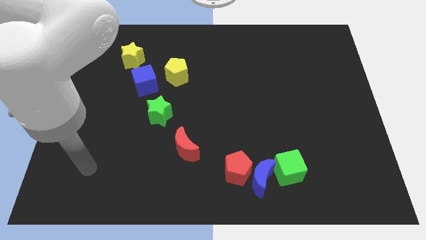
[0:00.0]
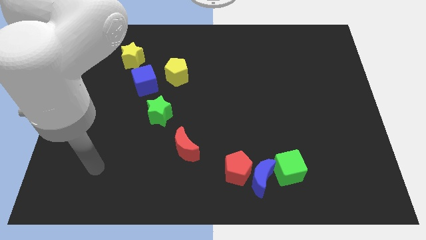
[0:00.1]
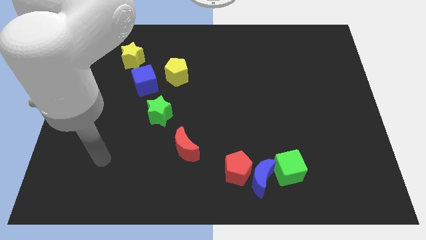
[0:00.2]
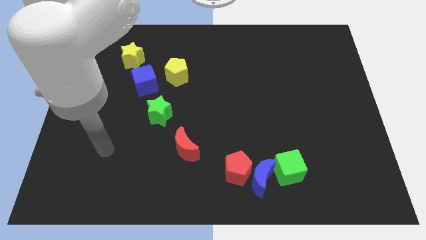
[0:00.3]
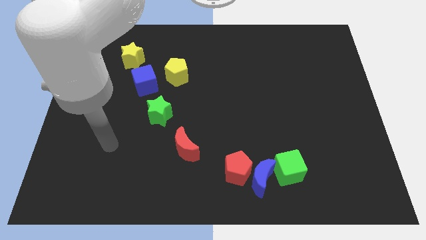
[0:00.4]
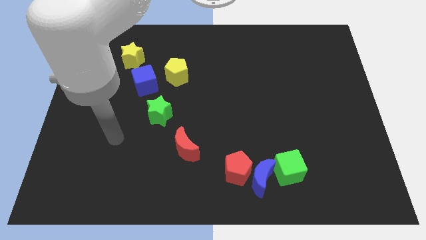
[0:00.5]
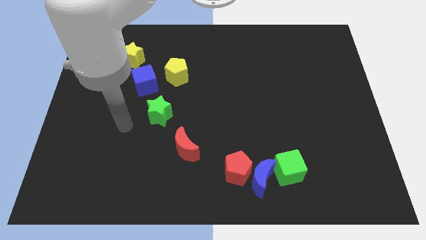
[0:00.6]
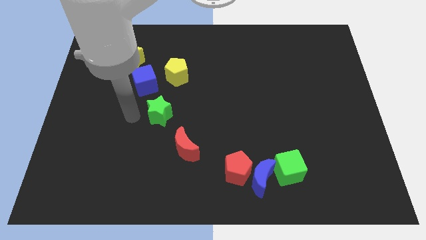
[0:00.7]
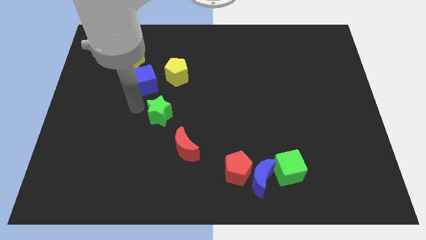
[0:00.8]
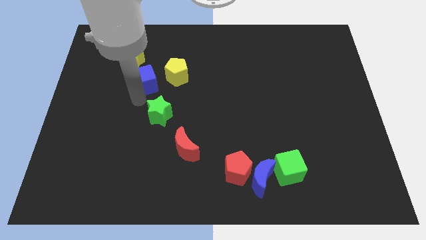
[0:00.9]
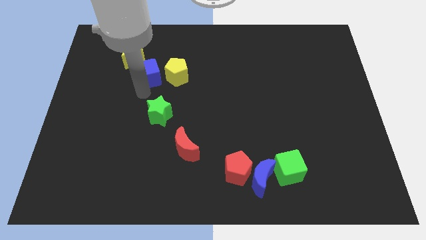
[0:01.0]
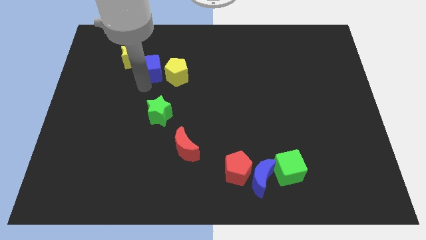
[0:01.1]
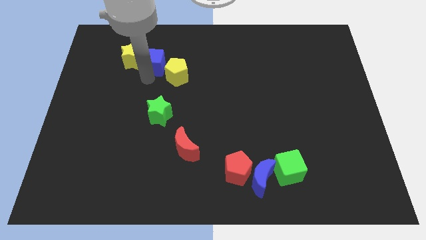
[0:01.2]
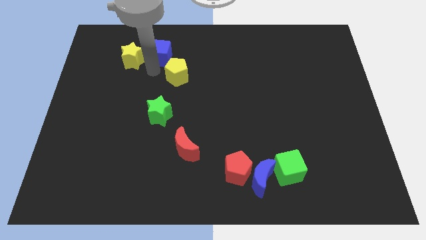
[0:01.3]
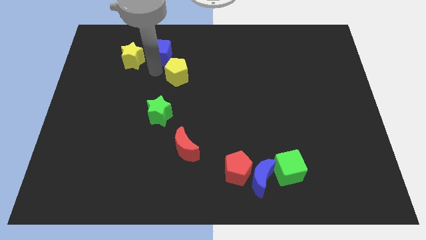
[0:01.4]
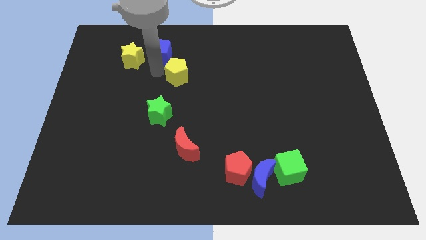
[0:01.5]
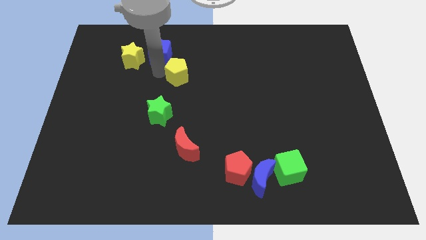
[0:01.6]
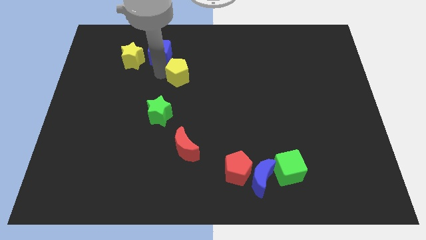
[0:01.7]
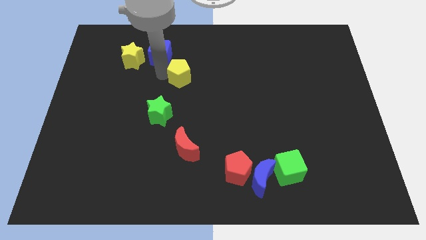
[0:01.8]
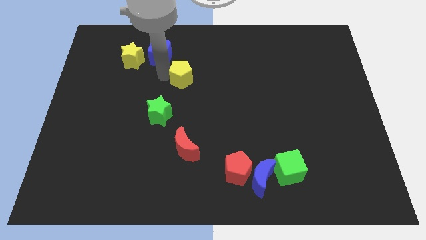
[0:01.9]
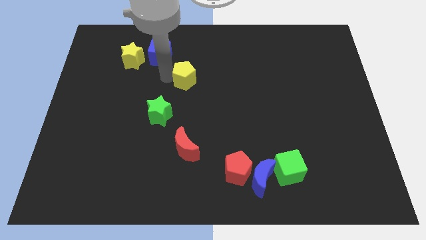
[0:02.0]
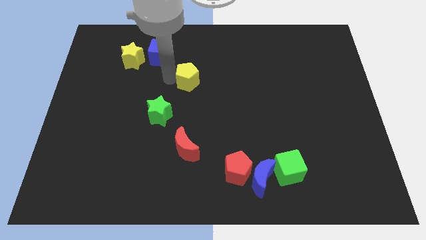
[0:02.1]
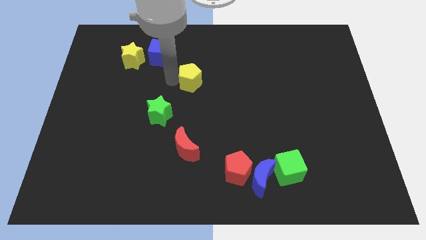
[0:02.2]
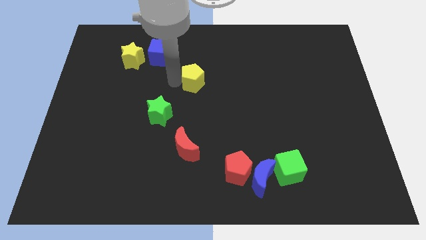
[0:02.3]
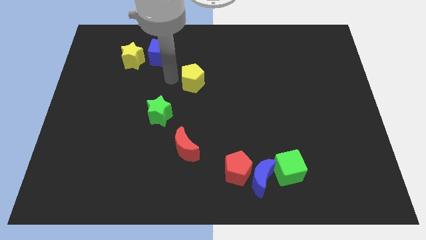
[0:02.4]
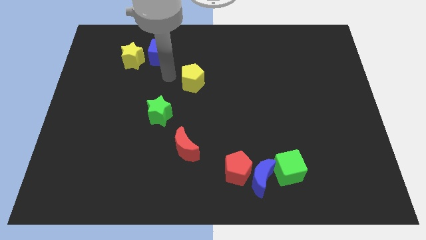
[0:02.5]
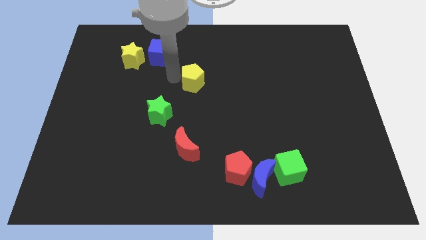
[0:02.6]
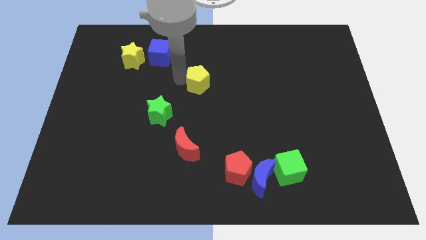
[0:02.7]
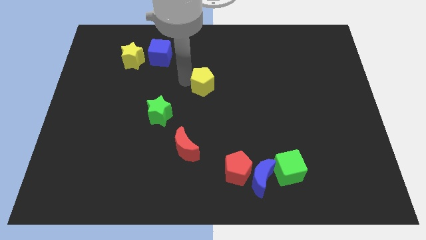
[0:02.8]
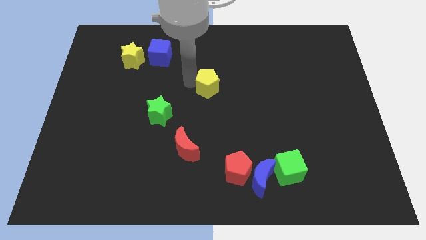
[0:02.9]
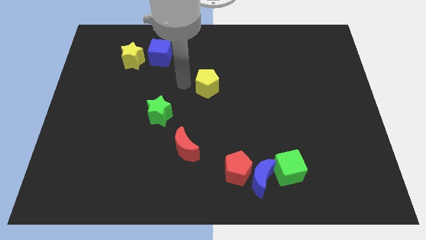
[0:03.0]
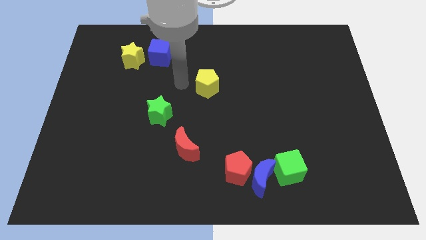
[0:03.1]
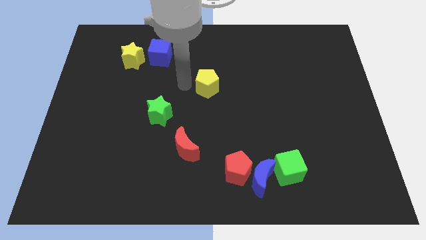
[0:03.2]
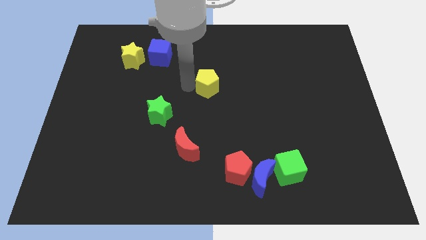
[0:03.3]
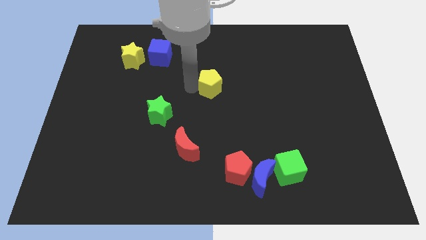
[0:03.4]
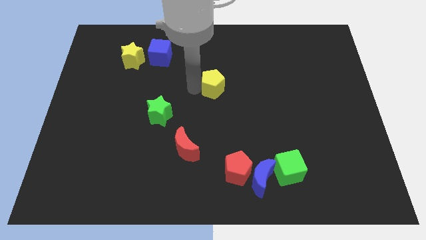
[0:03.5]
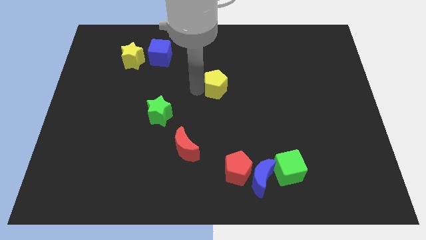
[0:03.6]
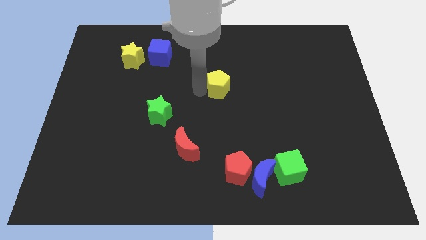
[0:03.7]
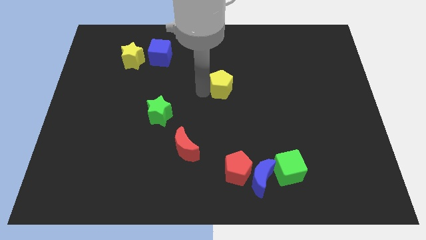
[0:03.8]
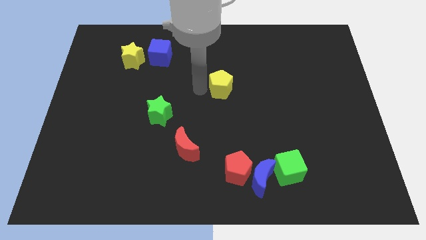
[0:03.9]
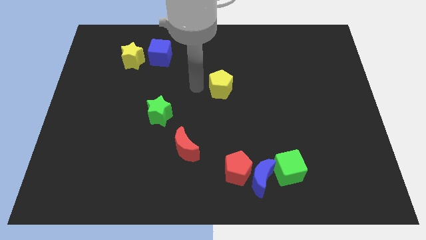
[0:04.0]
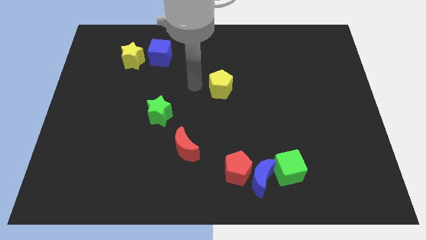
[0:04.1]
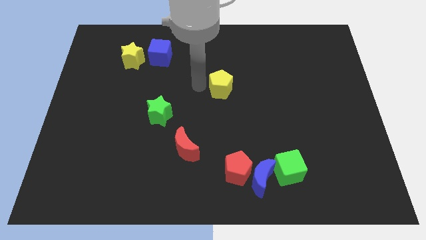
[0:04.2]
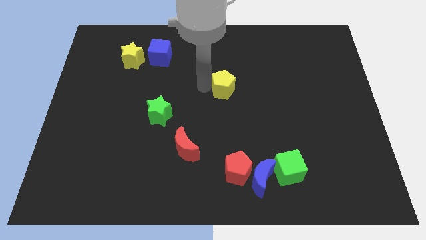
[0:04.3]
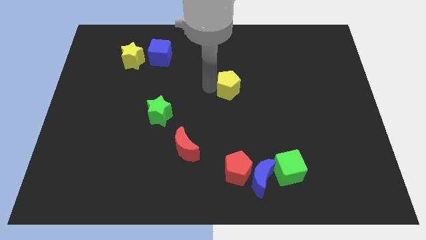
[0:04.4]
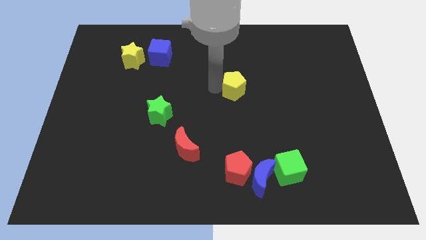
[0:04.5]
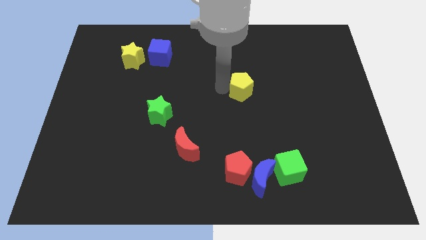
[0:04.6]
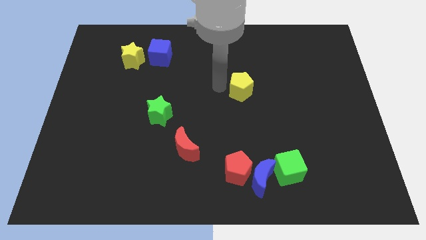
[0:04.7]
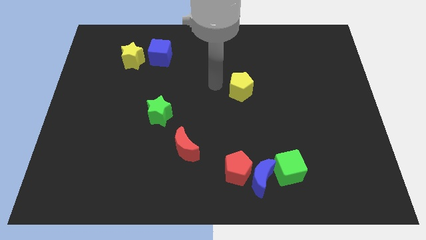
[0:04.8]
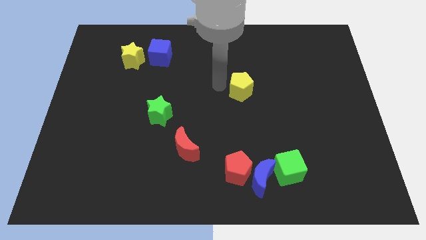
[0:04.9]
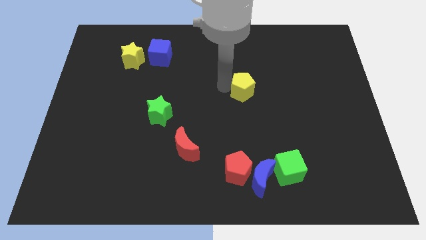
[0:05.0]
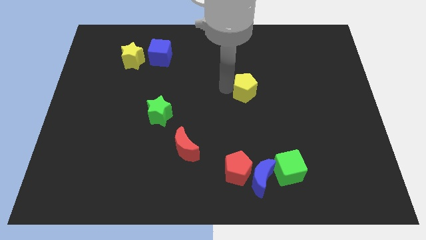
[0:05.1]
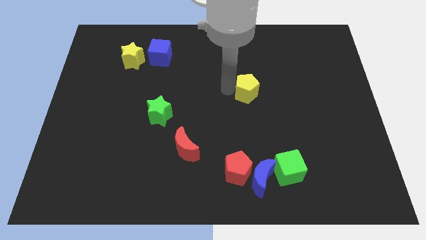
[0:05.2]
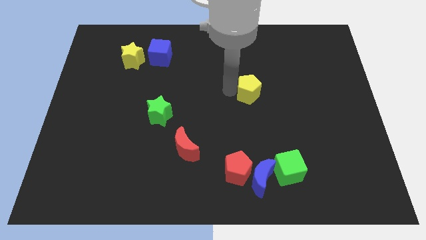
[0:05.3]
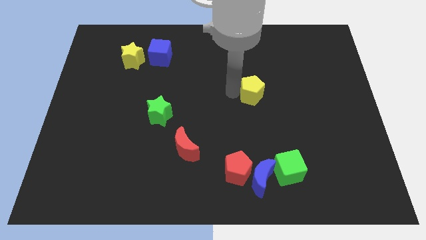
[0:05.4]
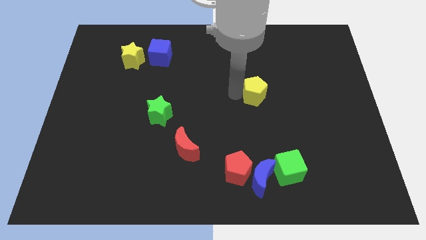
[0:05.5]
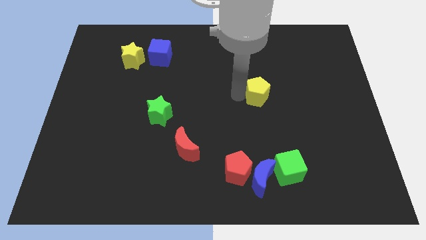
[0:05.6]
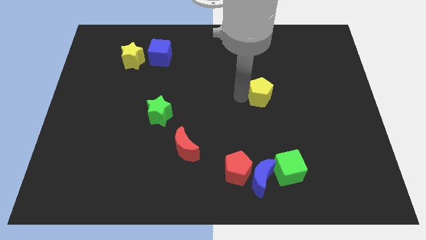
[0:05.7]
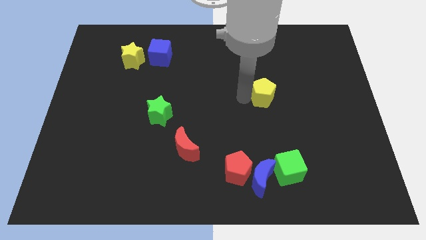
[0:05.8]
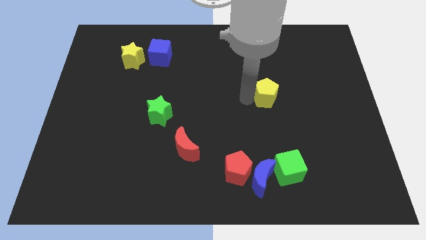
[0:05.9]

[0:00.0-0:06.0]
push the yellow pentagon right

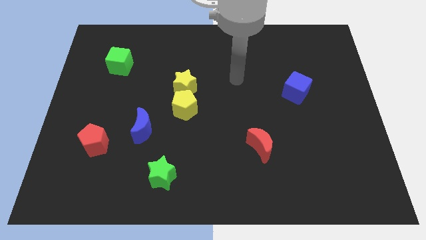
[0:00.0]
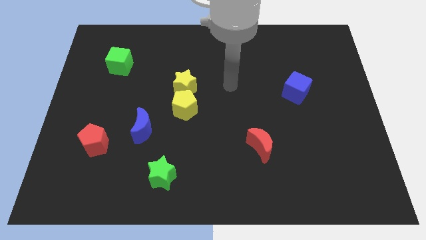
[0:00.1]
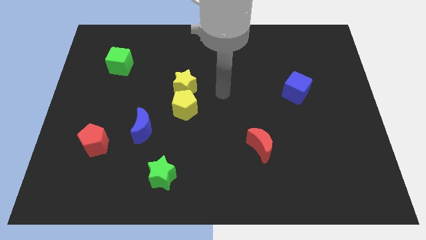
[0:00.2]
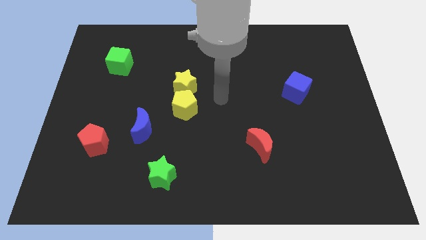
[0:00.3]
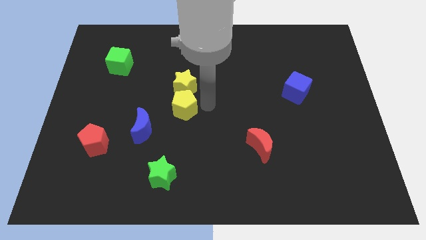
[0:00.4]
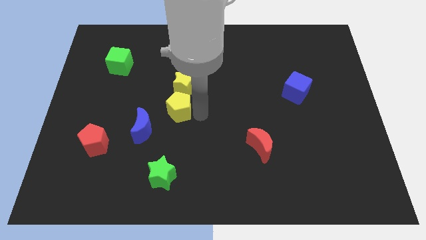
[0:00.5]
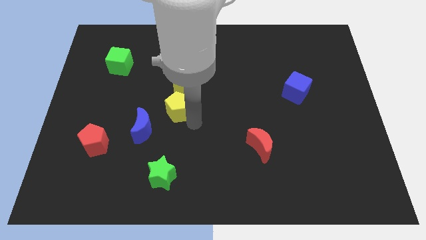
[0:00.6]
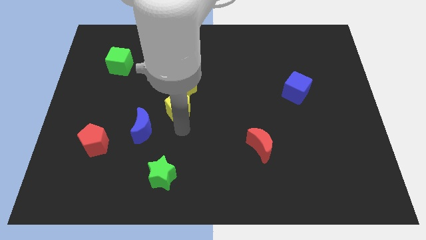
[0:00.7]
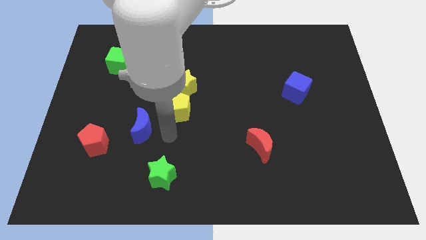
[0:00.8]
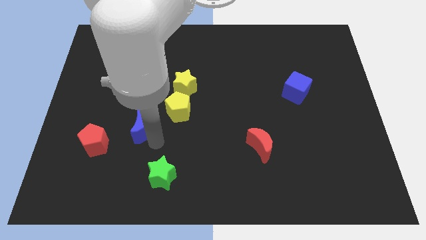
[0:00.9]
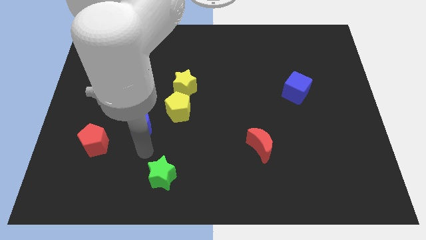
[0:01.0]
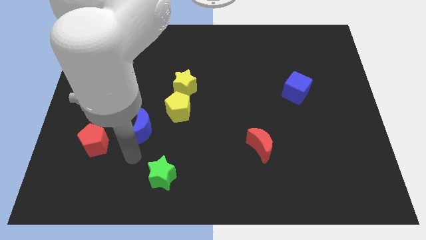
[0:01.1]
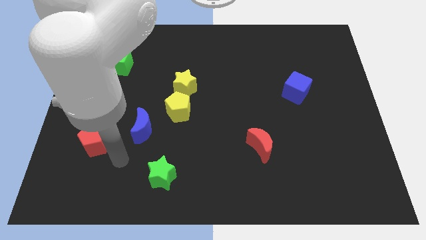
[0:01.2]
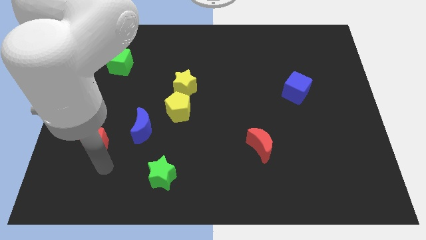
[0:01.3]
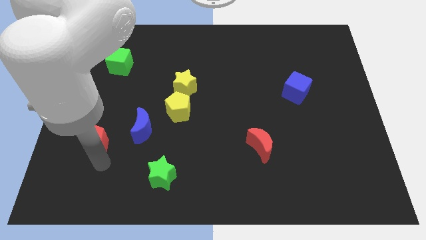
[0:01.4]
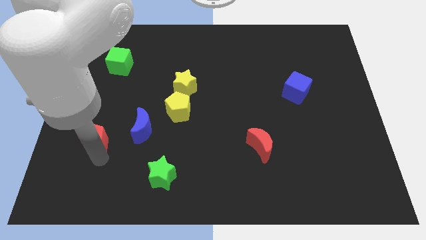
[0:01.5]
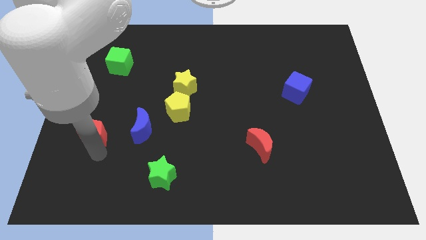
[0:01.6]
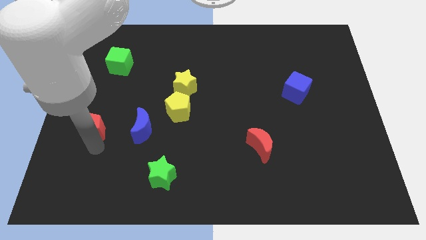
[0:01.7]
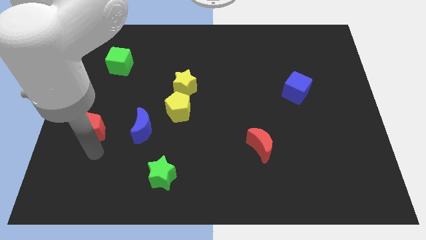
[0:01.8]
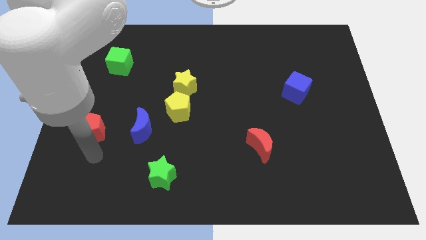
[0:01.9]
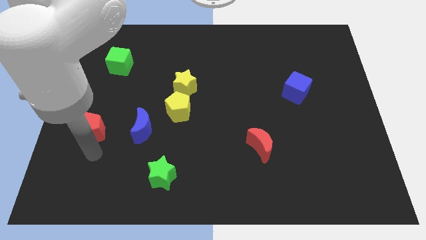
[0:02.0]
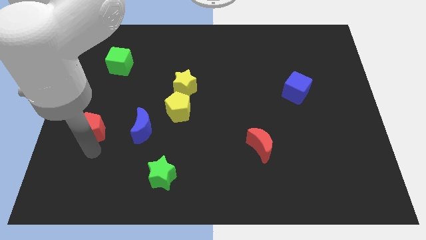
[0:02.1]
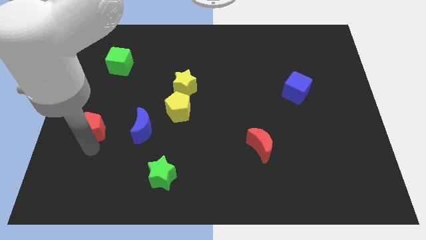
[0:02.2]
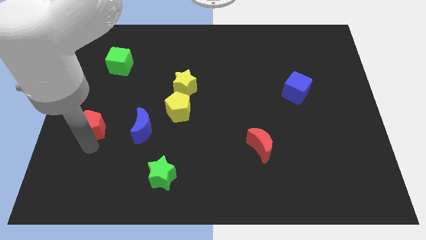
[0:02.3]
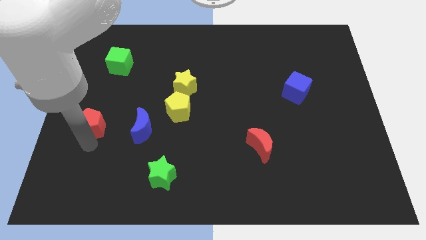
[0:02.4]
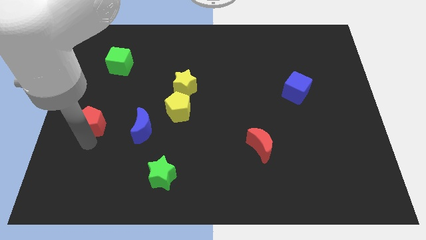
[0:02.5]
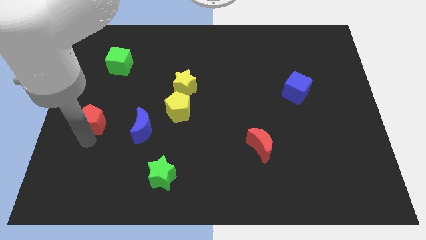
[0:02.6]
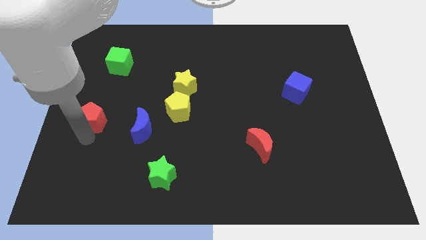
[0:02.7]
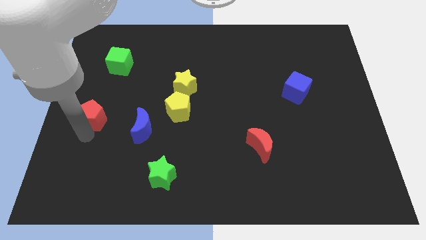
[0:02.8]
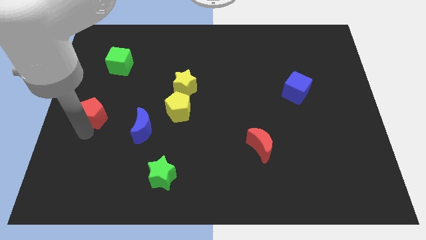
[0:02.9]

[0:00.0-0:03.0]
slide the red pentagon a little bit up
